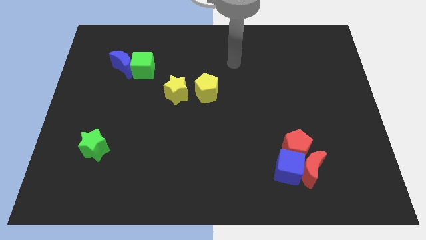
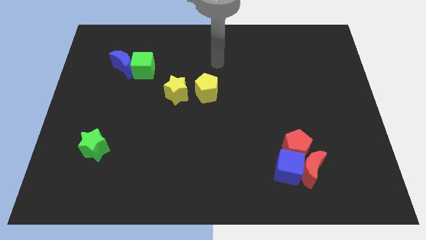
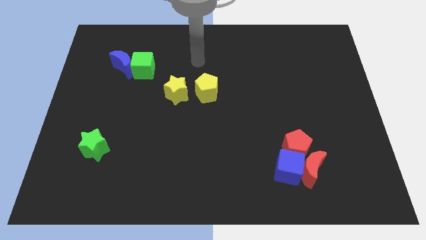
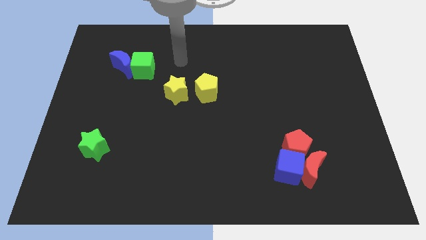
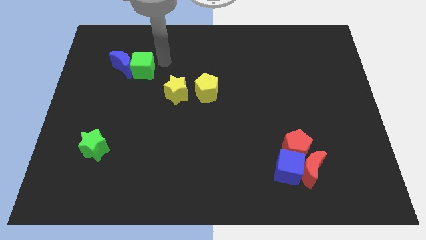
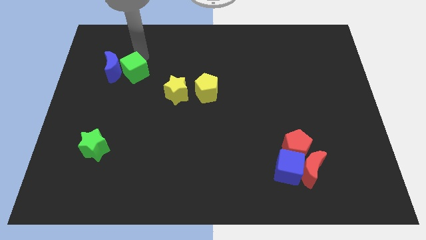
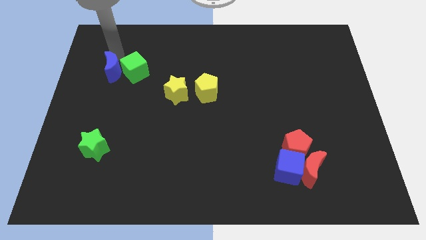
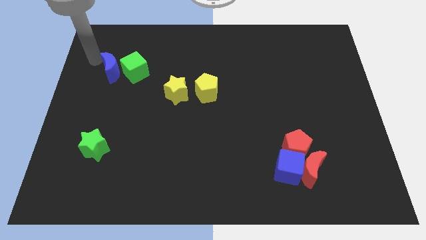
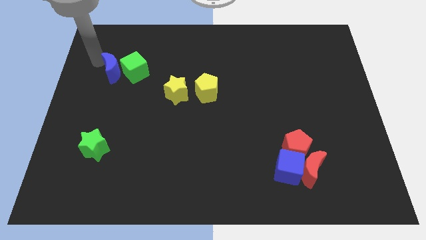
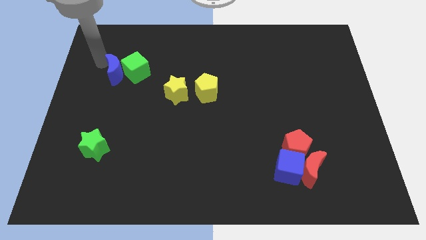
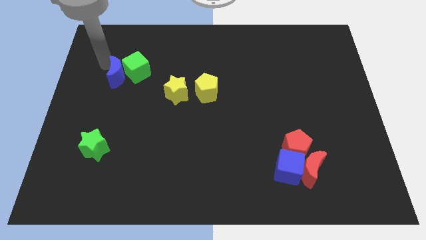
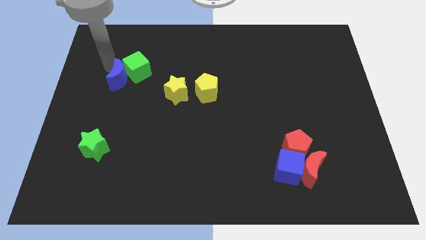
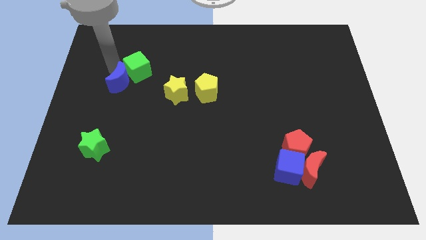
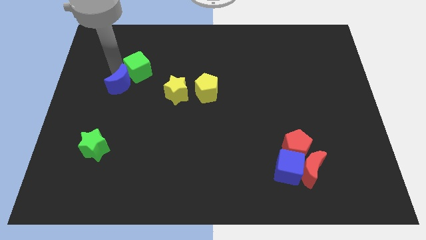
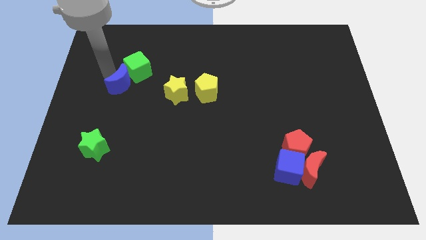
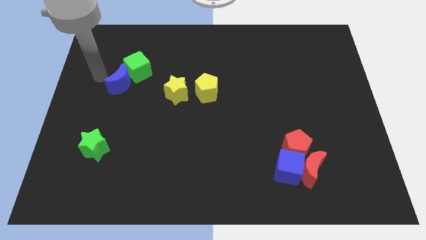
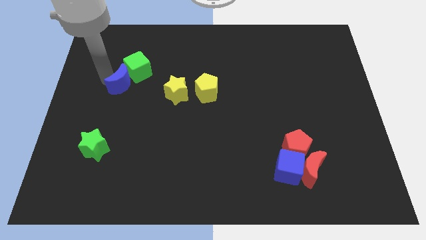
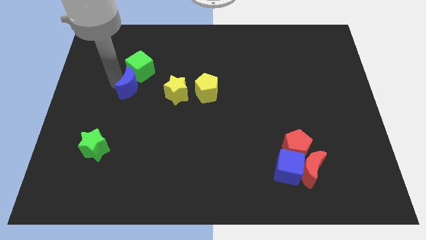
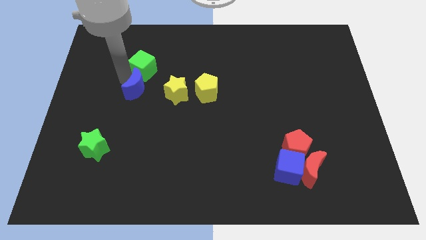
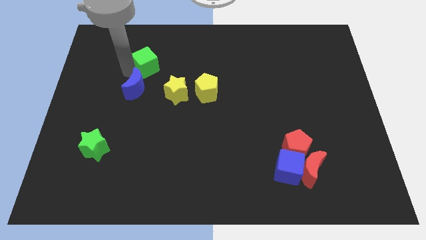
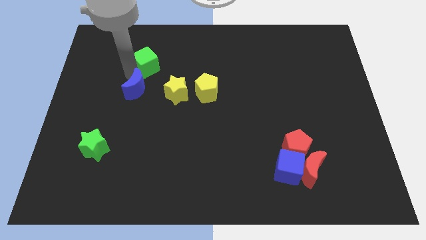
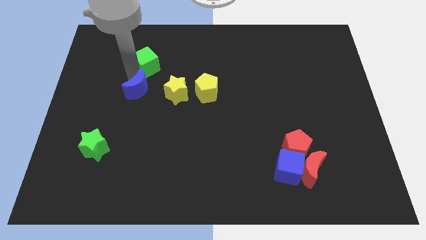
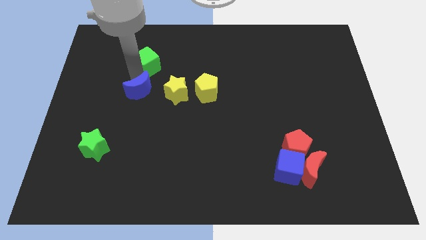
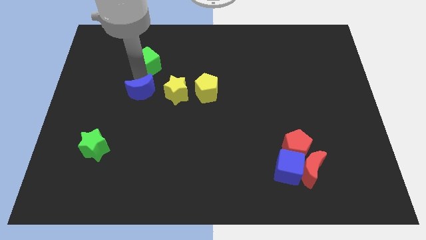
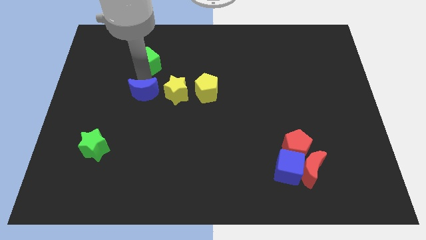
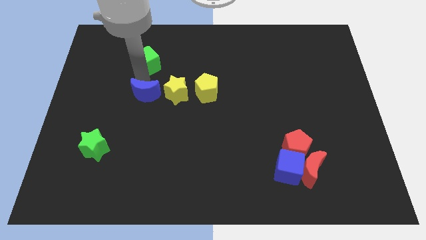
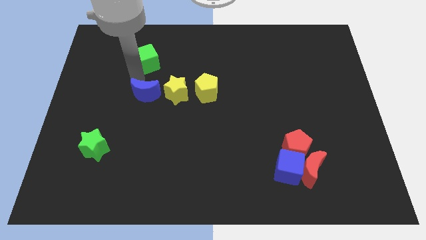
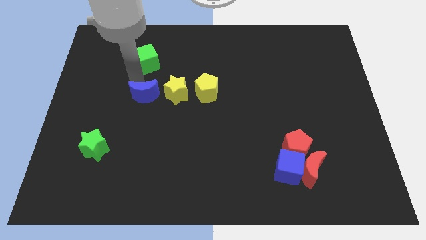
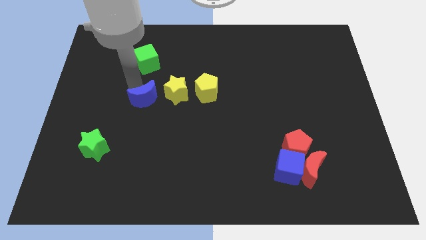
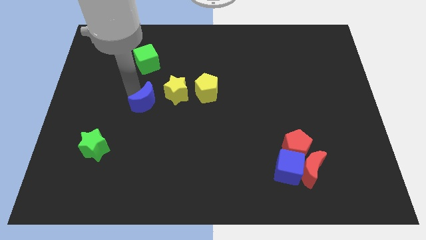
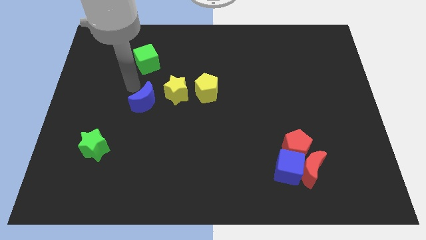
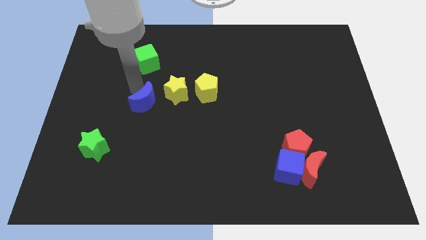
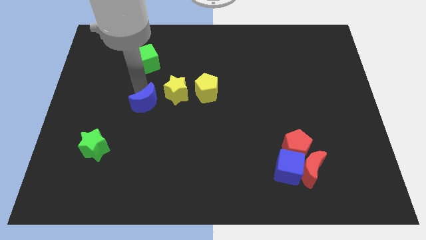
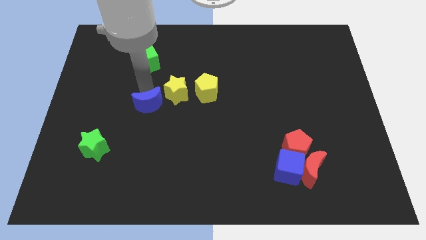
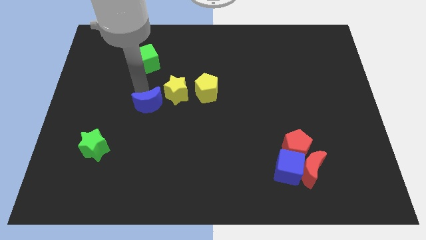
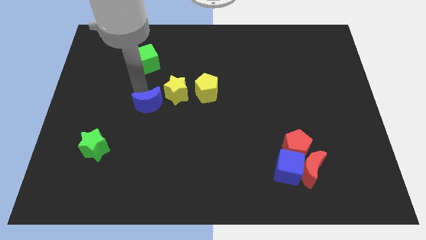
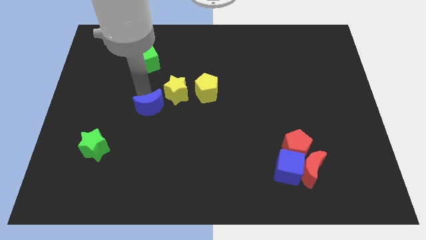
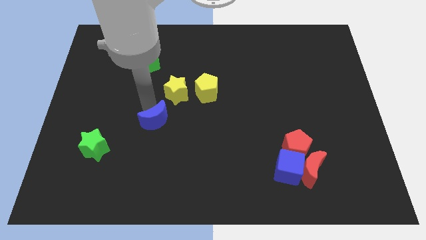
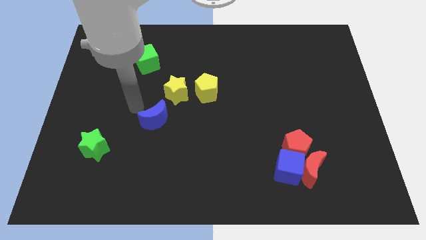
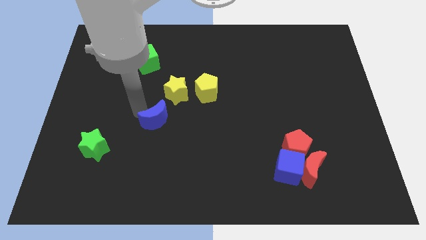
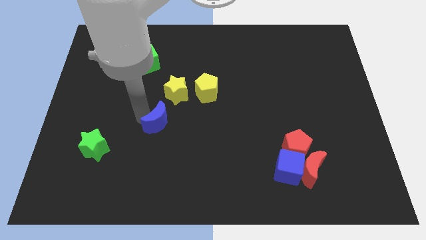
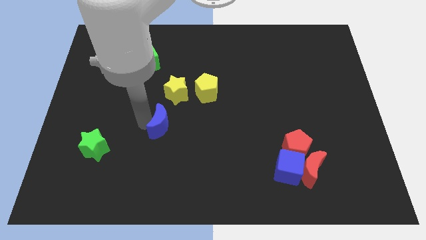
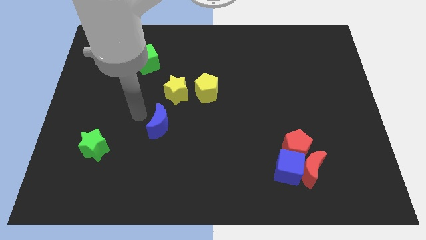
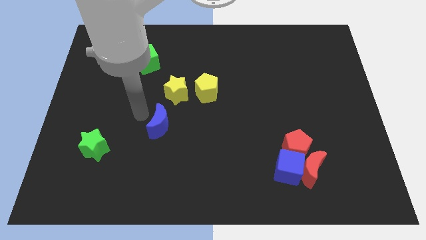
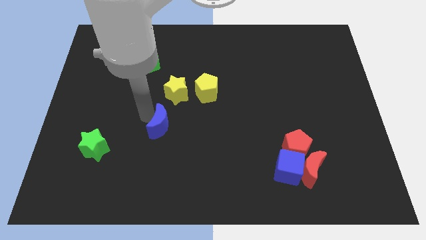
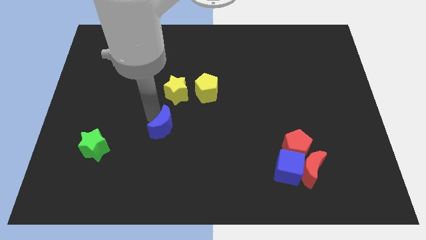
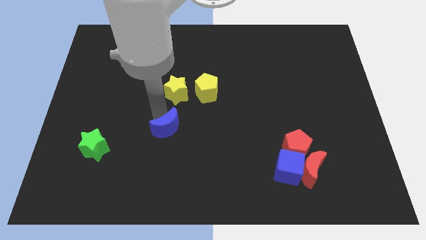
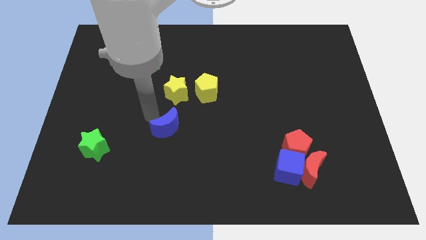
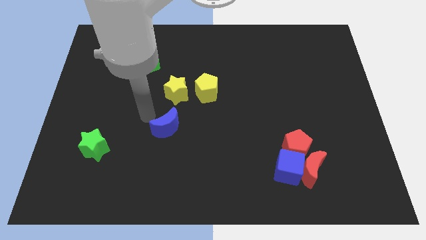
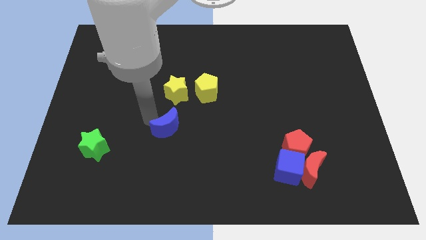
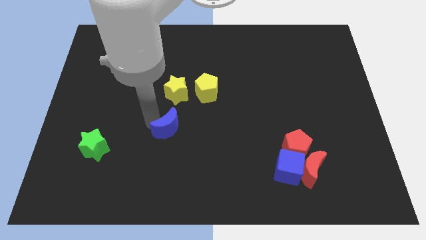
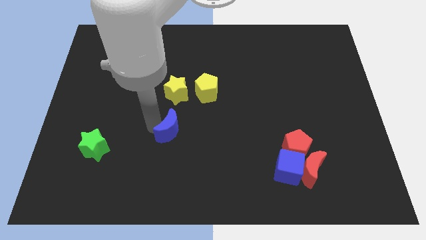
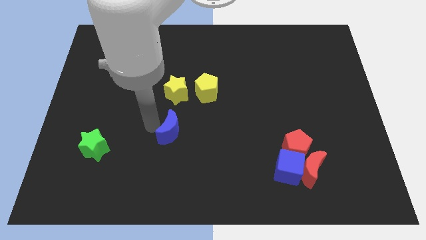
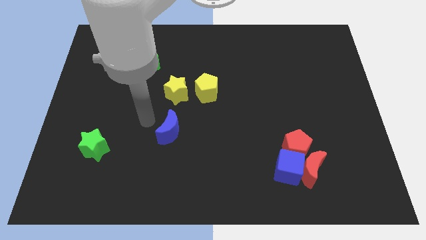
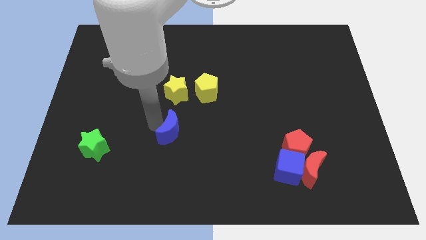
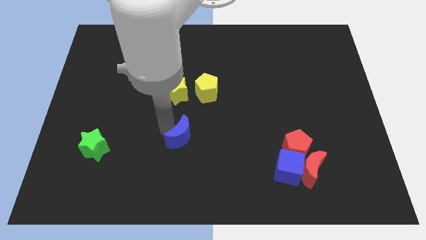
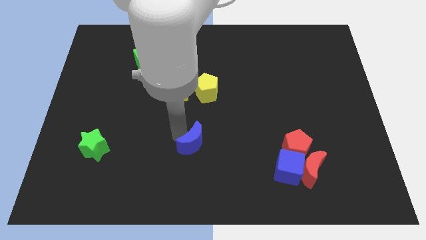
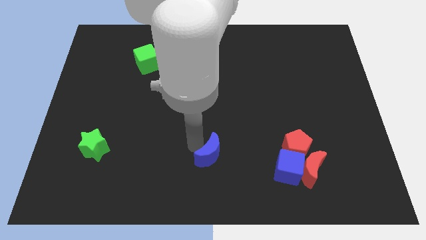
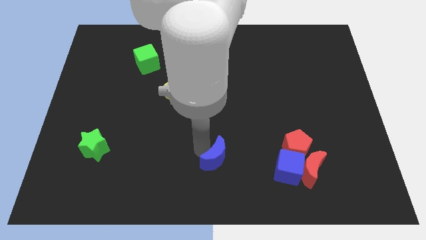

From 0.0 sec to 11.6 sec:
slide the blue moon to the left of the blue cube
